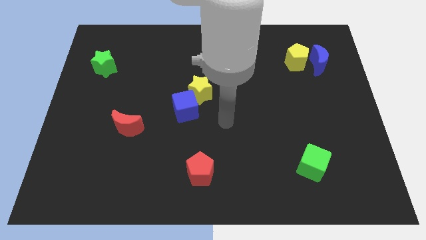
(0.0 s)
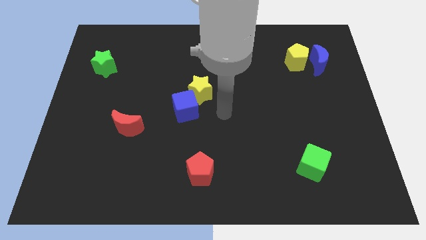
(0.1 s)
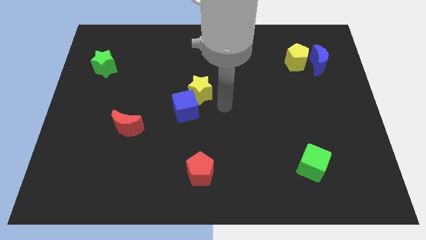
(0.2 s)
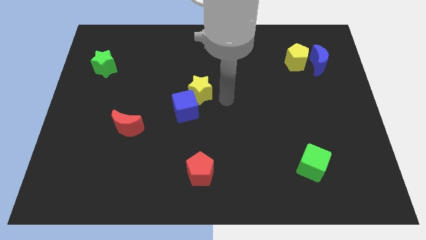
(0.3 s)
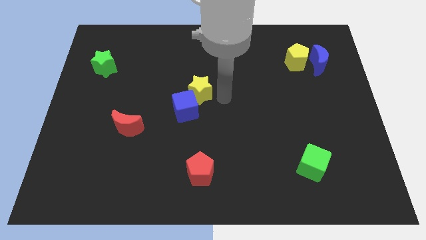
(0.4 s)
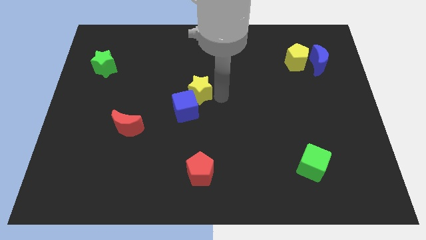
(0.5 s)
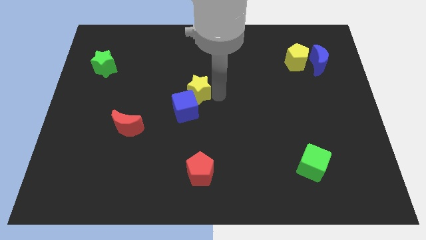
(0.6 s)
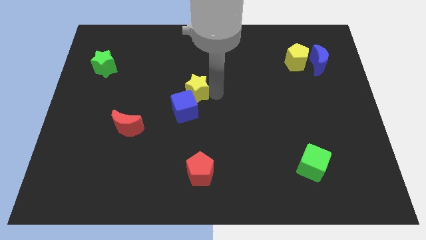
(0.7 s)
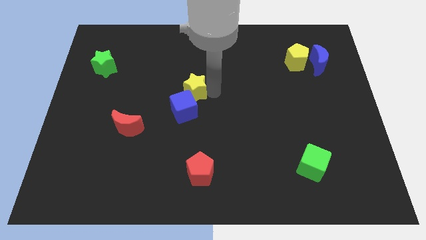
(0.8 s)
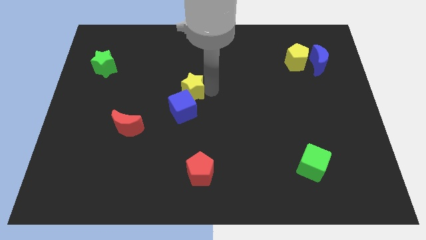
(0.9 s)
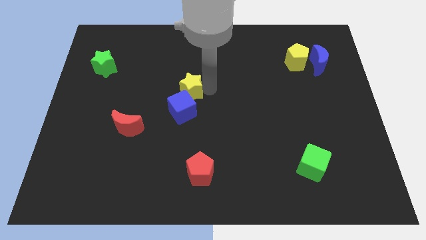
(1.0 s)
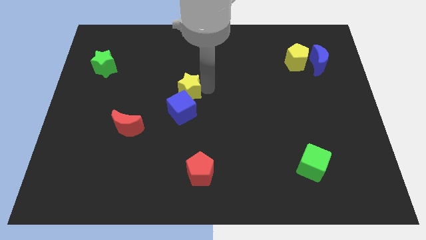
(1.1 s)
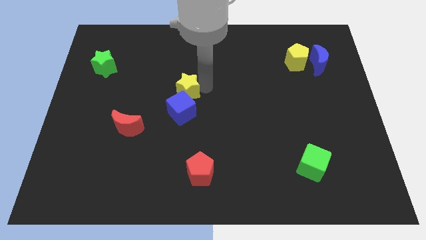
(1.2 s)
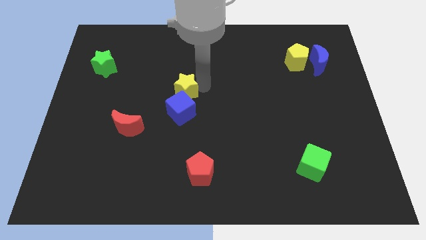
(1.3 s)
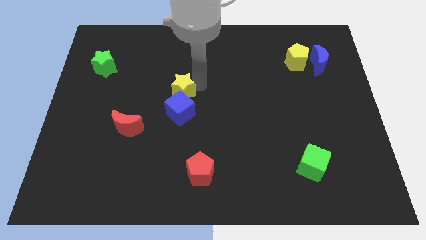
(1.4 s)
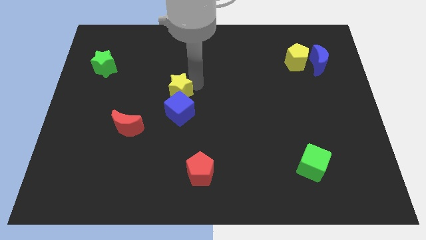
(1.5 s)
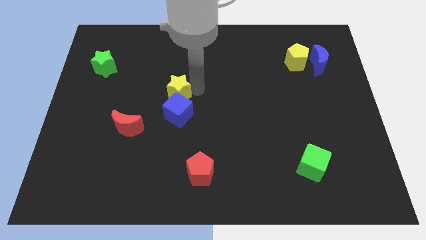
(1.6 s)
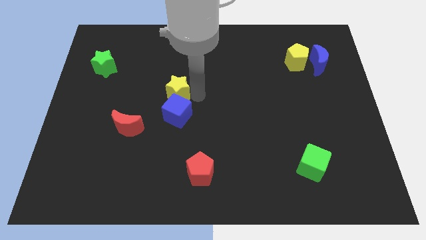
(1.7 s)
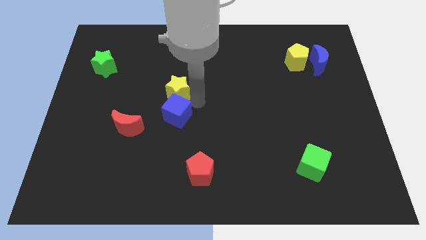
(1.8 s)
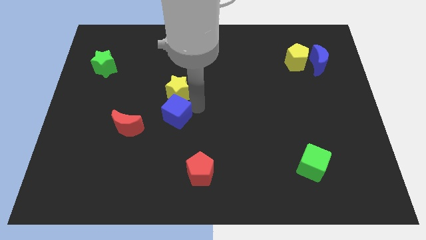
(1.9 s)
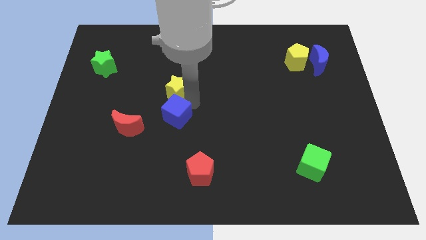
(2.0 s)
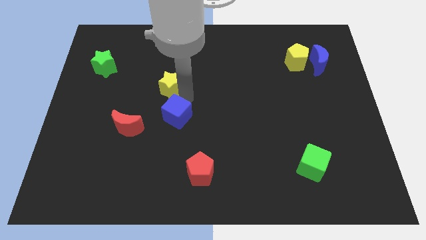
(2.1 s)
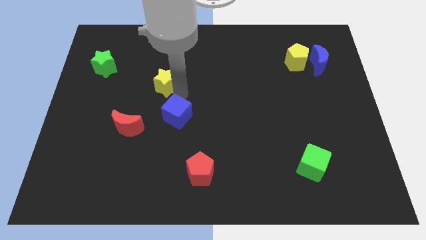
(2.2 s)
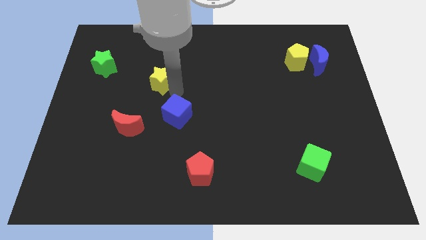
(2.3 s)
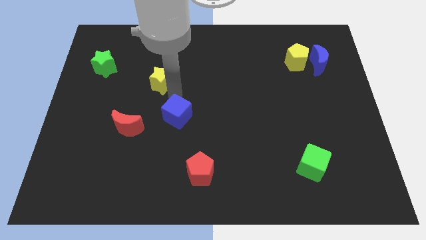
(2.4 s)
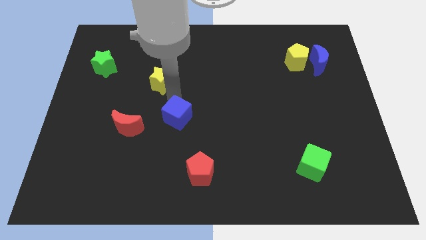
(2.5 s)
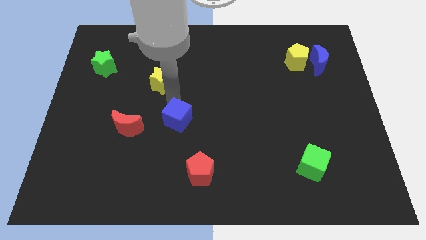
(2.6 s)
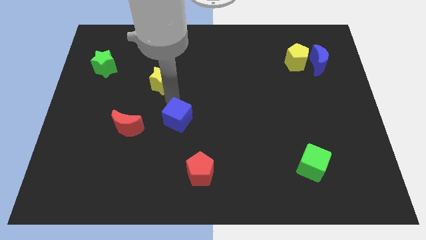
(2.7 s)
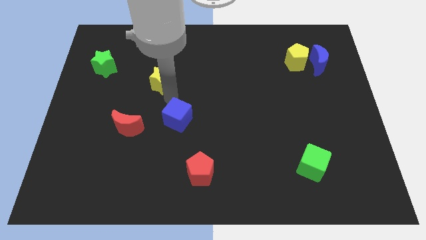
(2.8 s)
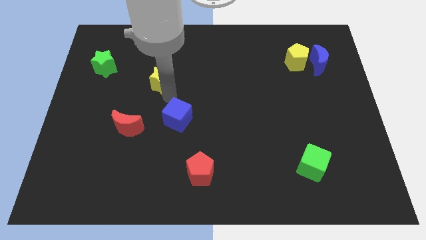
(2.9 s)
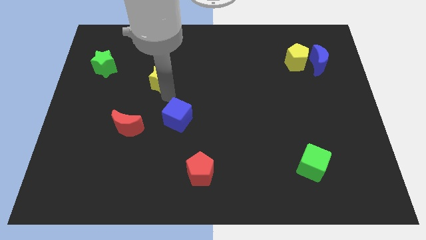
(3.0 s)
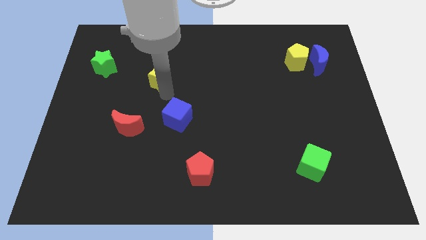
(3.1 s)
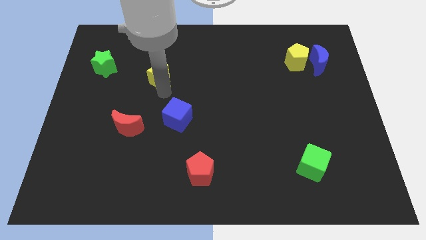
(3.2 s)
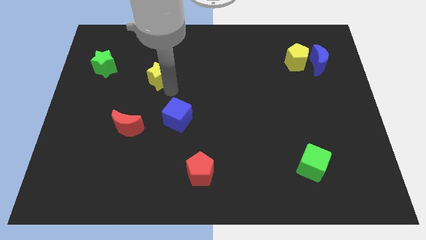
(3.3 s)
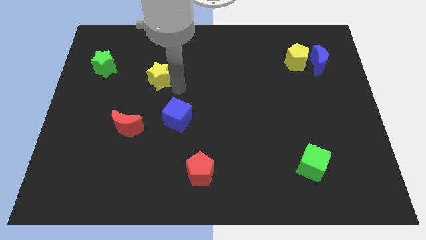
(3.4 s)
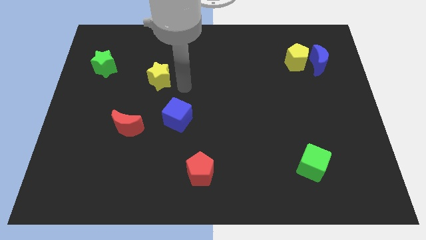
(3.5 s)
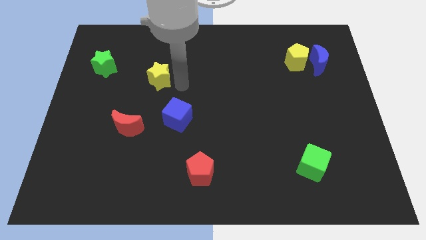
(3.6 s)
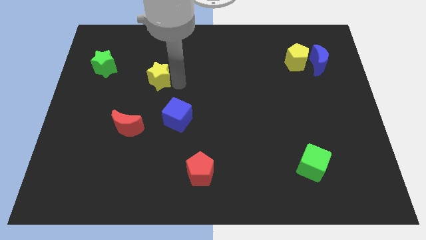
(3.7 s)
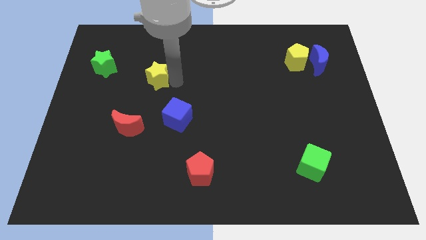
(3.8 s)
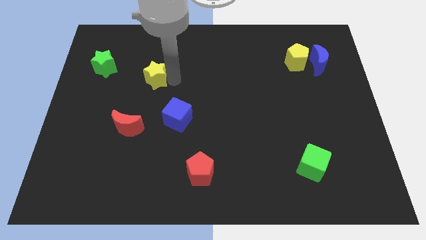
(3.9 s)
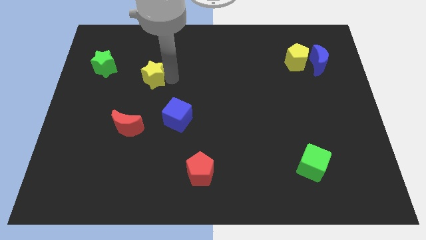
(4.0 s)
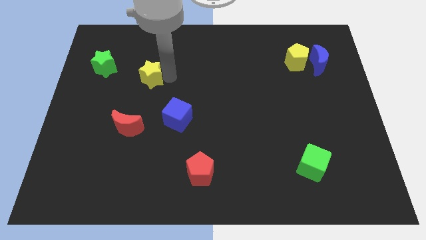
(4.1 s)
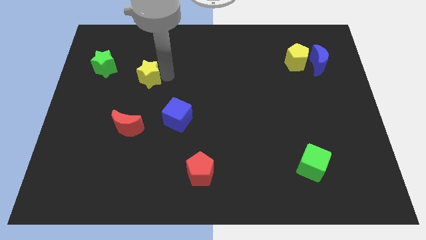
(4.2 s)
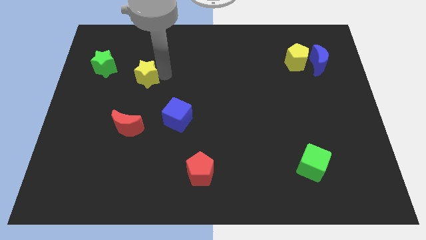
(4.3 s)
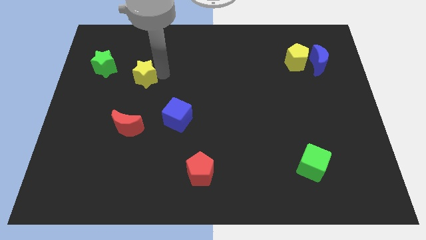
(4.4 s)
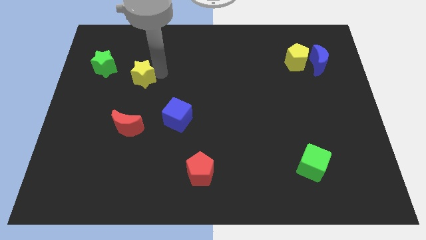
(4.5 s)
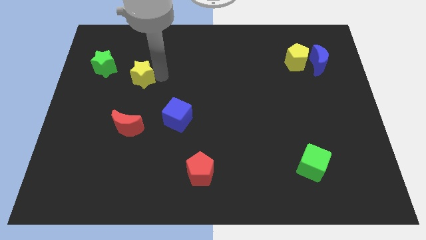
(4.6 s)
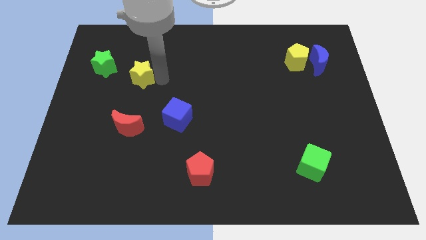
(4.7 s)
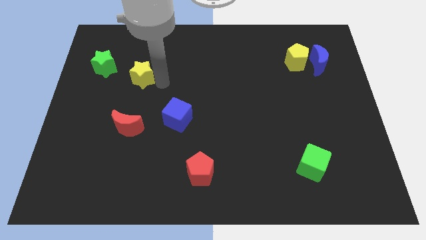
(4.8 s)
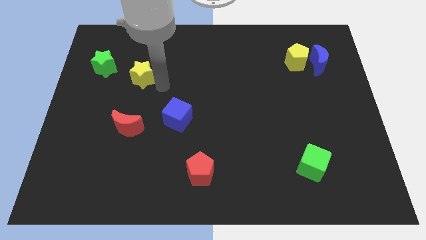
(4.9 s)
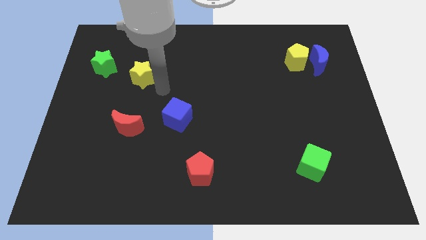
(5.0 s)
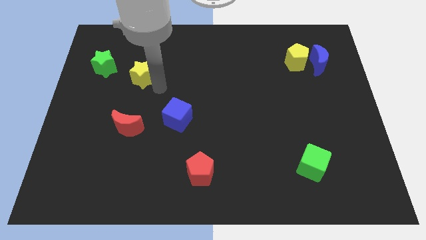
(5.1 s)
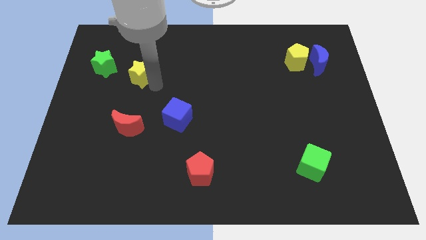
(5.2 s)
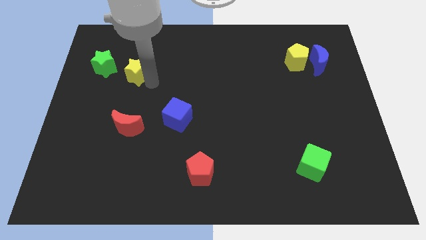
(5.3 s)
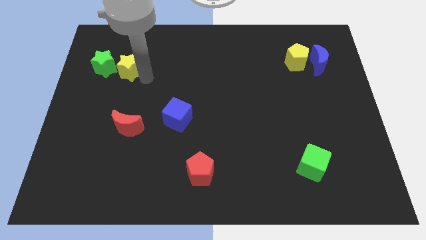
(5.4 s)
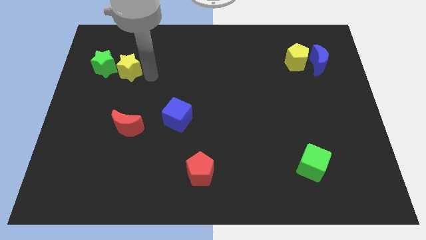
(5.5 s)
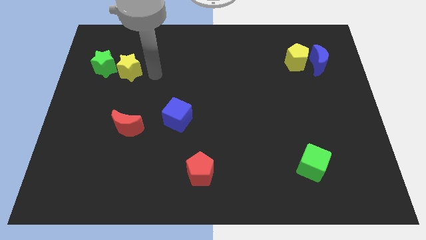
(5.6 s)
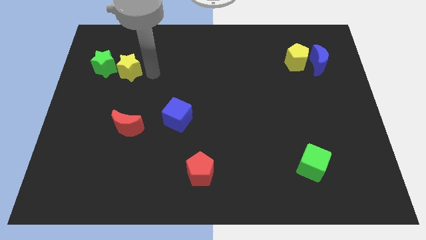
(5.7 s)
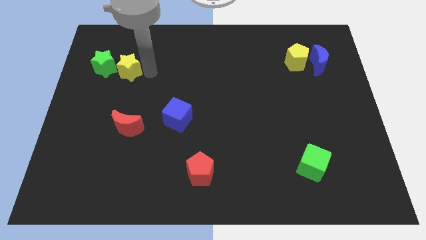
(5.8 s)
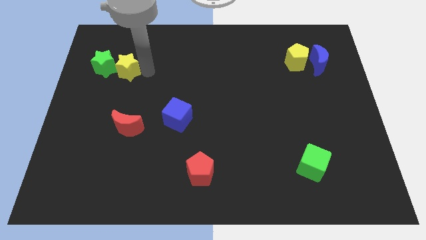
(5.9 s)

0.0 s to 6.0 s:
push the yellow star towards the green star

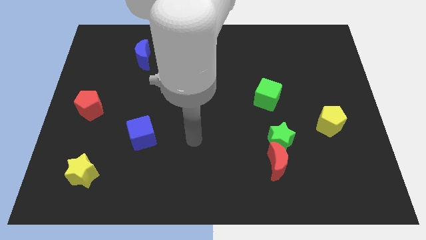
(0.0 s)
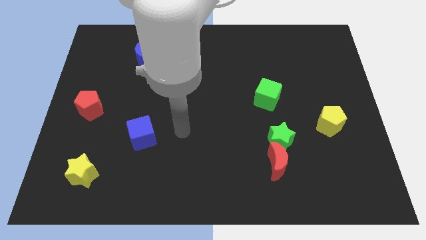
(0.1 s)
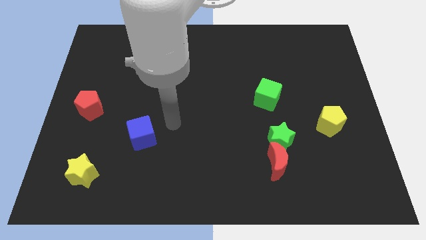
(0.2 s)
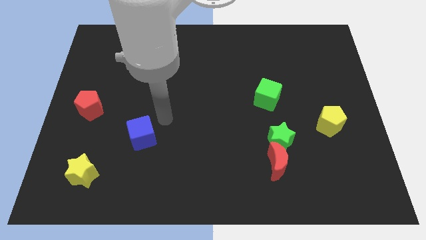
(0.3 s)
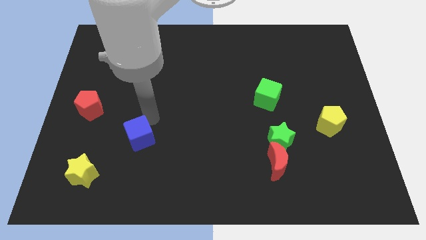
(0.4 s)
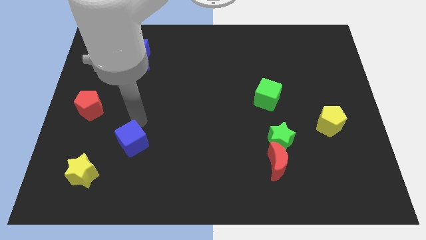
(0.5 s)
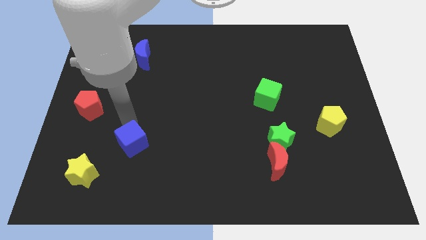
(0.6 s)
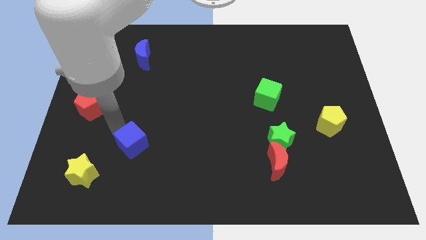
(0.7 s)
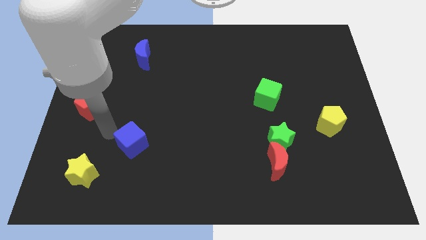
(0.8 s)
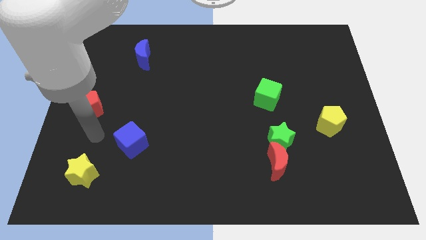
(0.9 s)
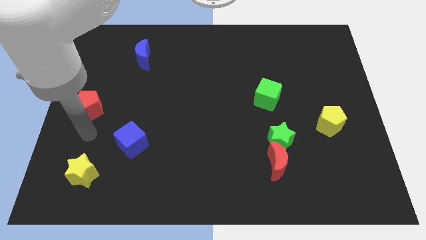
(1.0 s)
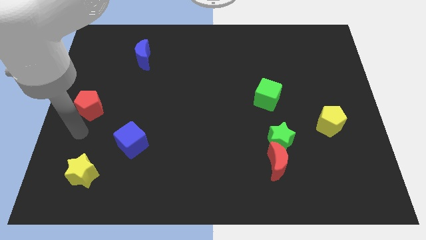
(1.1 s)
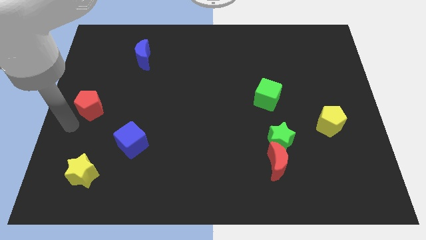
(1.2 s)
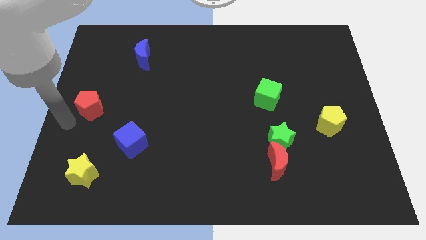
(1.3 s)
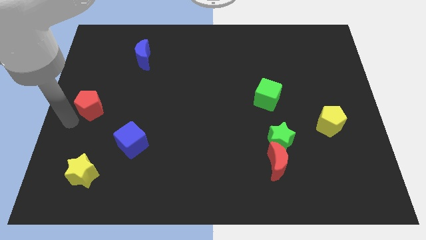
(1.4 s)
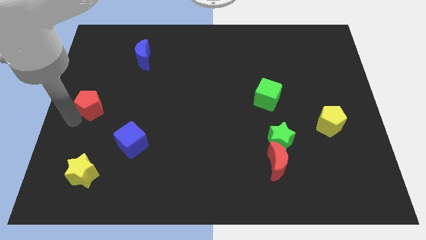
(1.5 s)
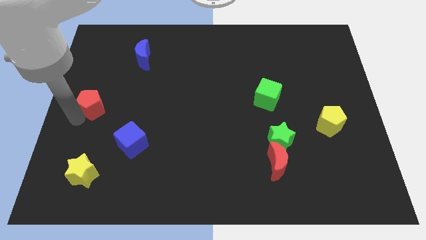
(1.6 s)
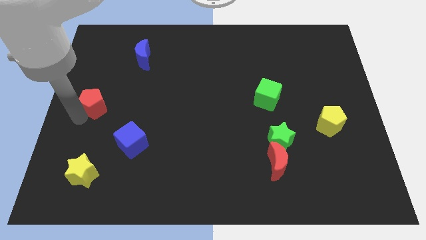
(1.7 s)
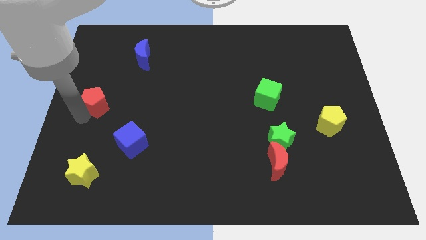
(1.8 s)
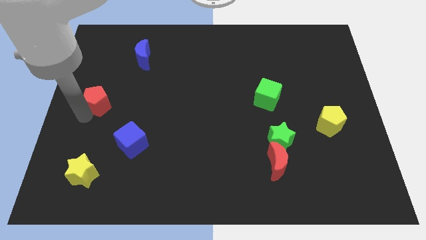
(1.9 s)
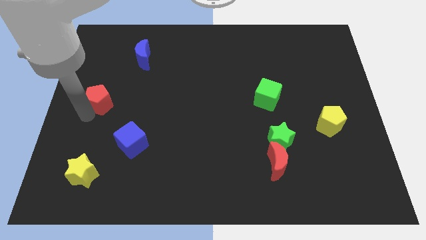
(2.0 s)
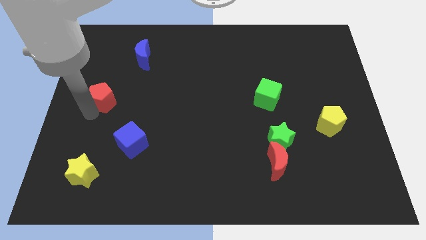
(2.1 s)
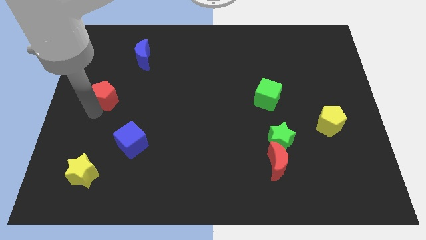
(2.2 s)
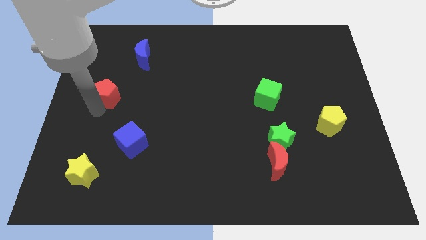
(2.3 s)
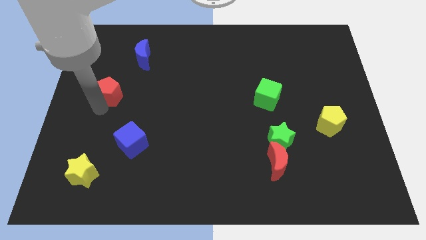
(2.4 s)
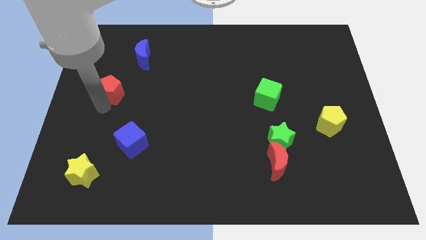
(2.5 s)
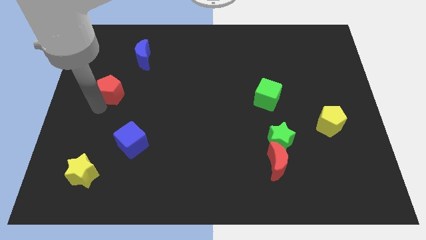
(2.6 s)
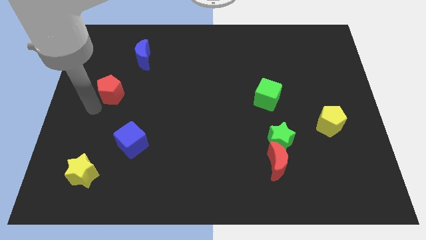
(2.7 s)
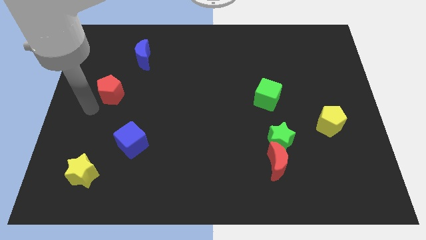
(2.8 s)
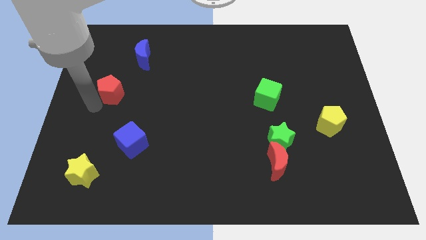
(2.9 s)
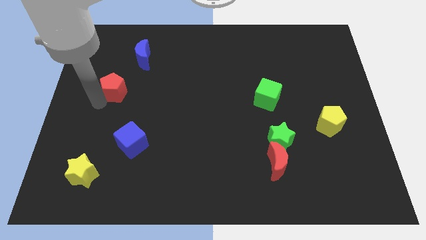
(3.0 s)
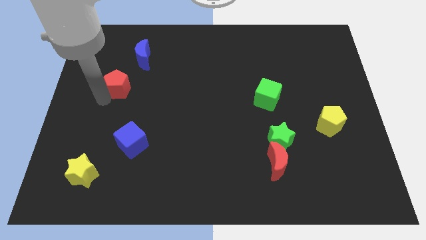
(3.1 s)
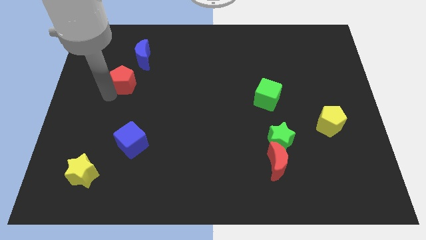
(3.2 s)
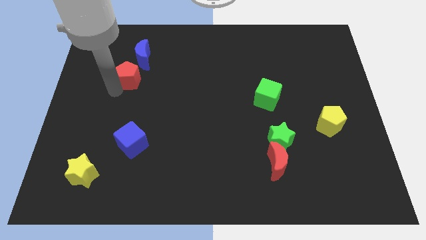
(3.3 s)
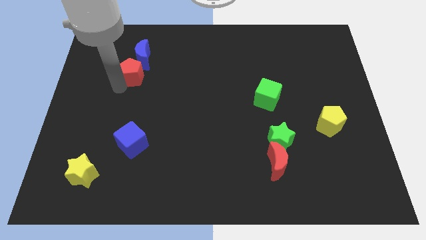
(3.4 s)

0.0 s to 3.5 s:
move the red pentagon close to the blue moon
